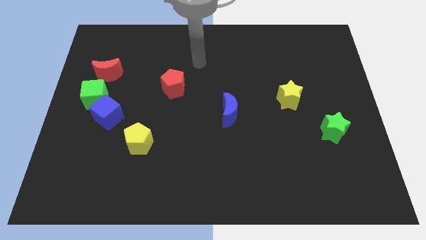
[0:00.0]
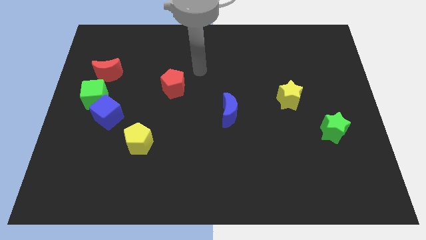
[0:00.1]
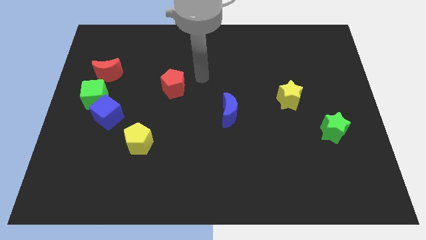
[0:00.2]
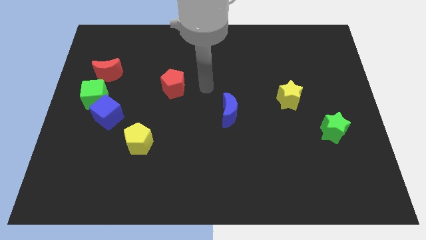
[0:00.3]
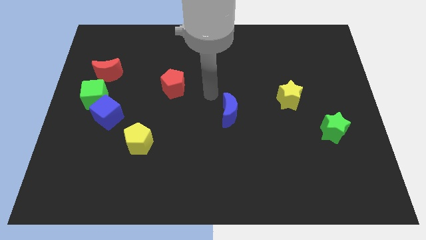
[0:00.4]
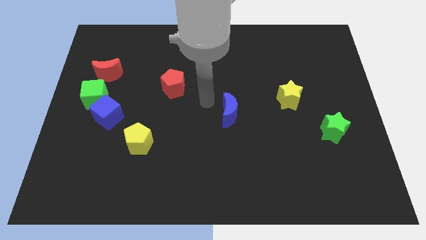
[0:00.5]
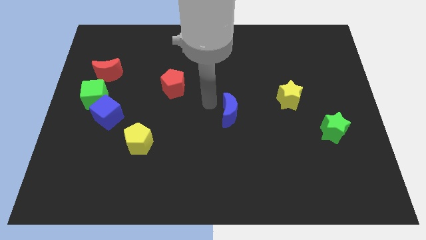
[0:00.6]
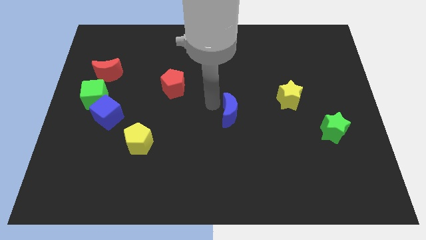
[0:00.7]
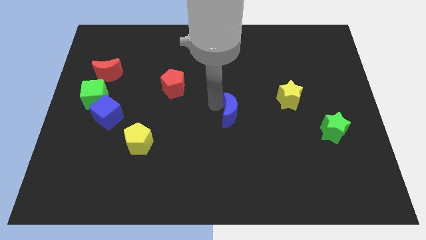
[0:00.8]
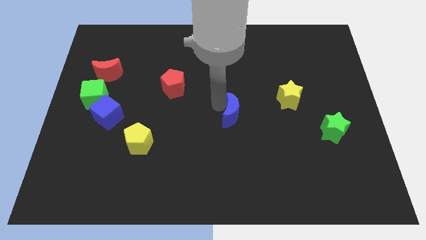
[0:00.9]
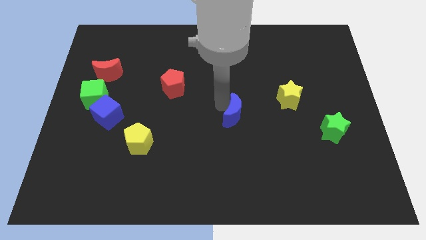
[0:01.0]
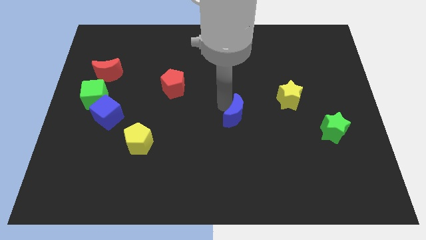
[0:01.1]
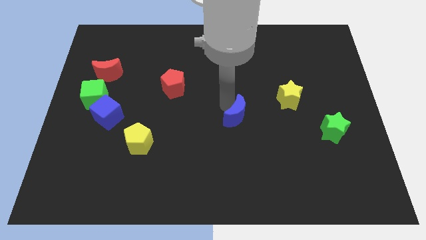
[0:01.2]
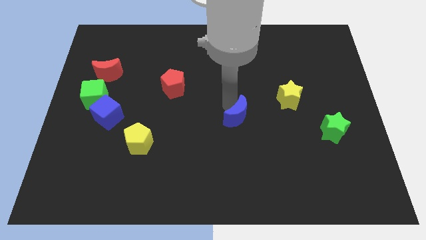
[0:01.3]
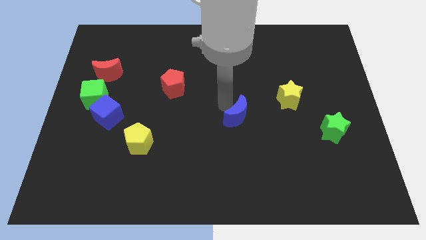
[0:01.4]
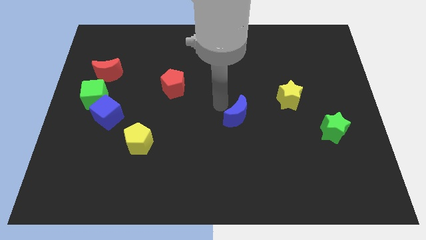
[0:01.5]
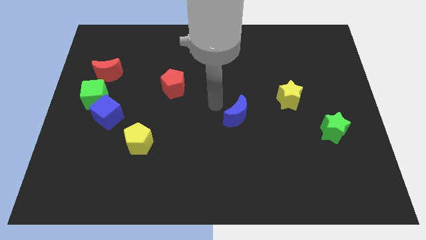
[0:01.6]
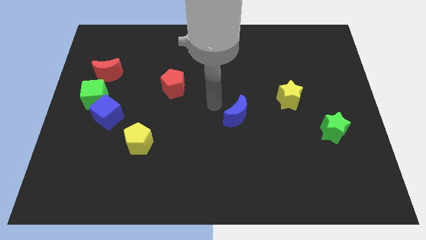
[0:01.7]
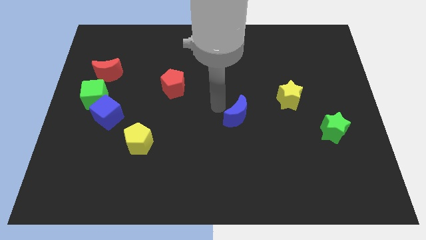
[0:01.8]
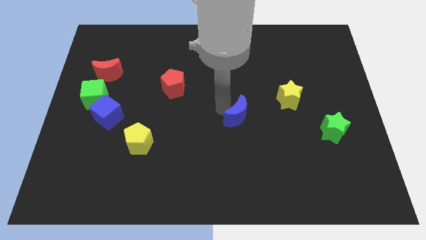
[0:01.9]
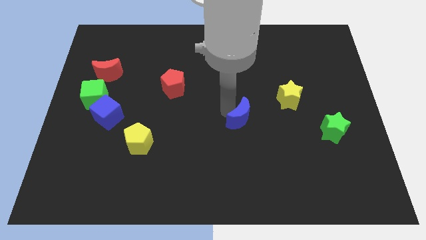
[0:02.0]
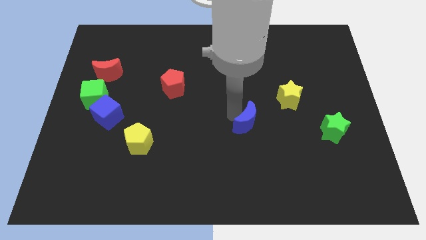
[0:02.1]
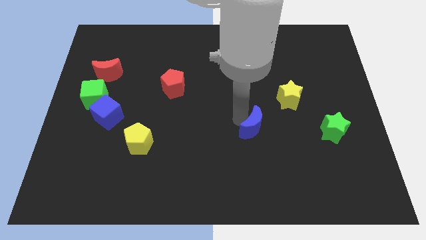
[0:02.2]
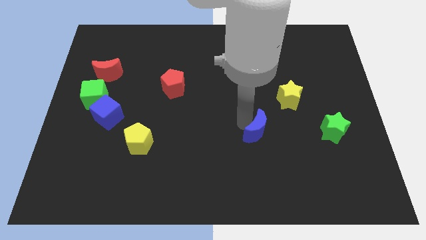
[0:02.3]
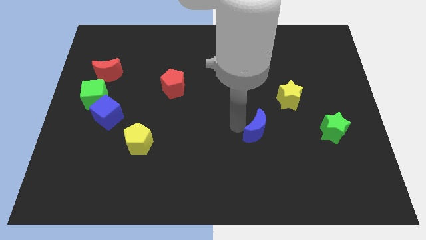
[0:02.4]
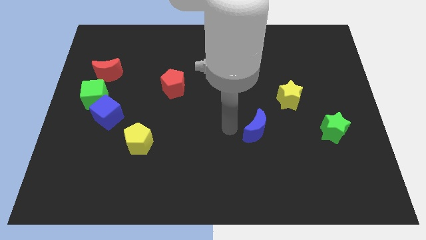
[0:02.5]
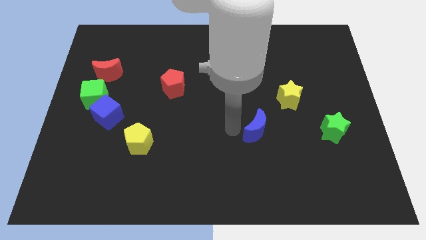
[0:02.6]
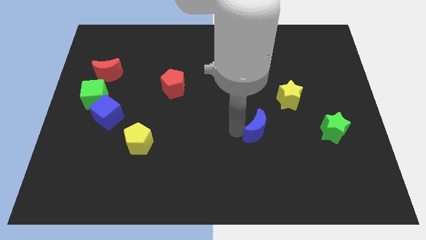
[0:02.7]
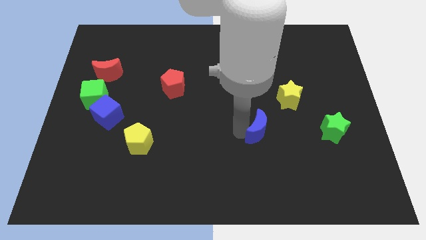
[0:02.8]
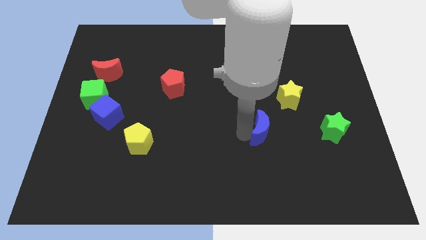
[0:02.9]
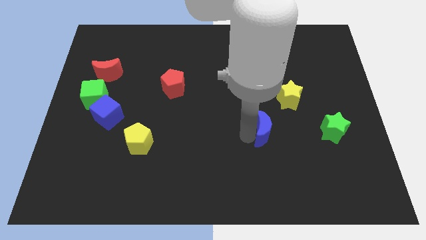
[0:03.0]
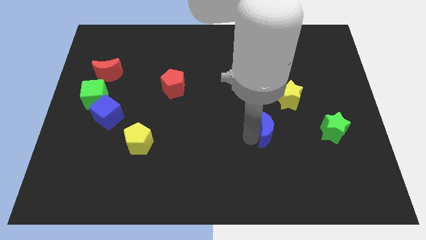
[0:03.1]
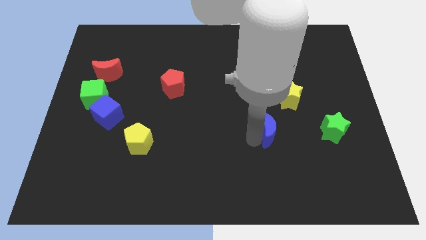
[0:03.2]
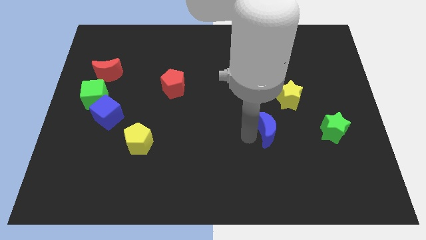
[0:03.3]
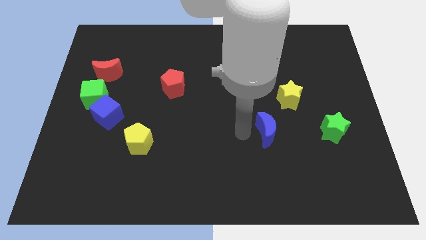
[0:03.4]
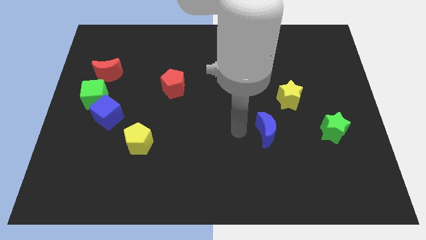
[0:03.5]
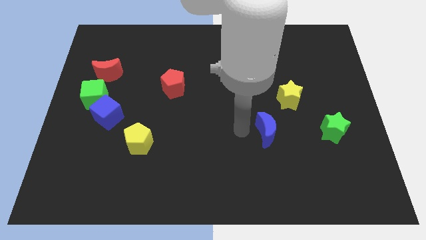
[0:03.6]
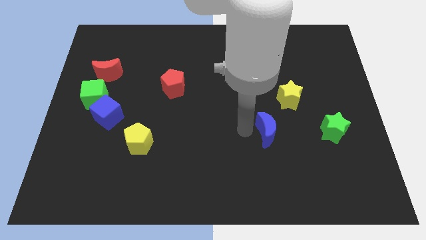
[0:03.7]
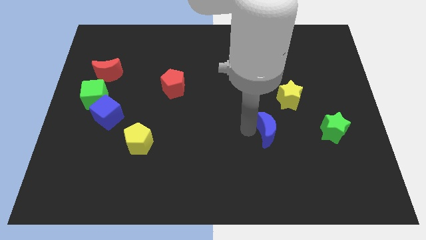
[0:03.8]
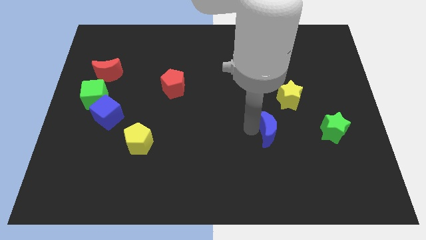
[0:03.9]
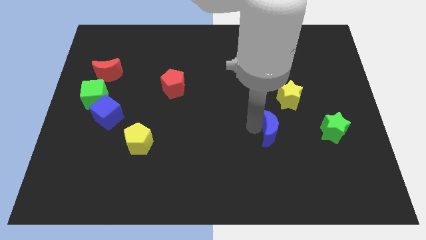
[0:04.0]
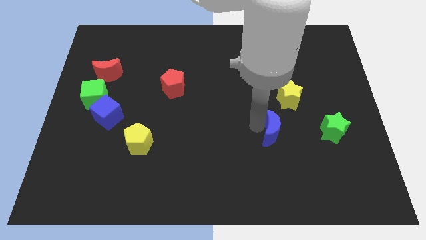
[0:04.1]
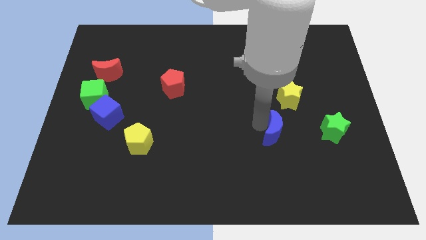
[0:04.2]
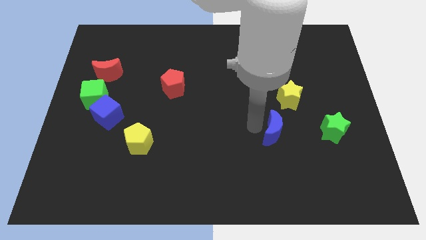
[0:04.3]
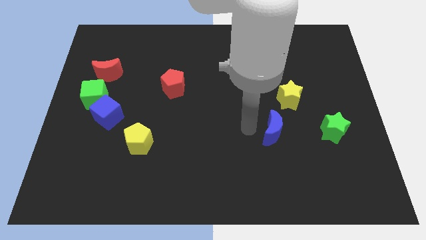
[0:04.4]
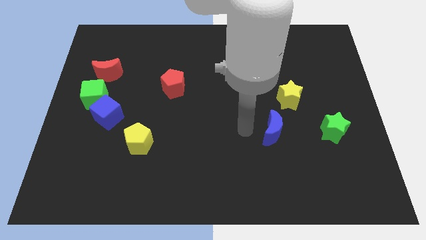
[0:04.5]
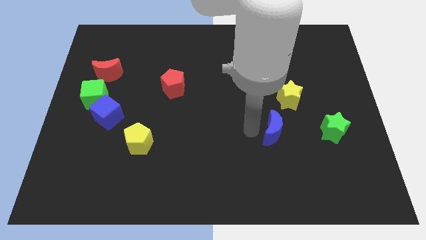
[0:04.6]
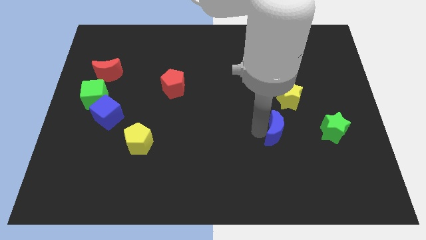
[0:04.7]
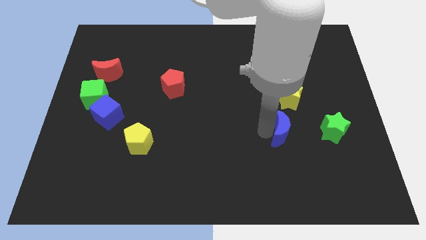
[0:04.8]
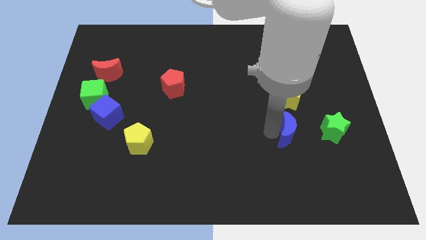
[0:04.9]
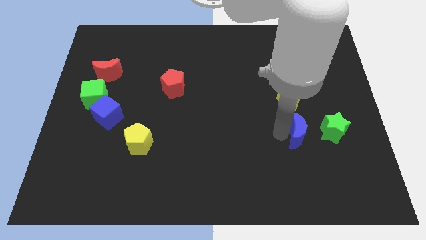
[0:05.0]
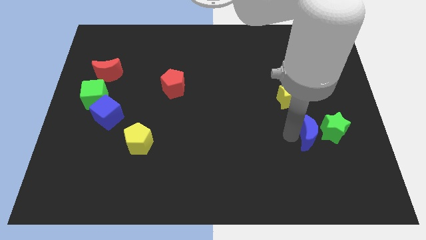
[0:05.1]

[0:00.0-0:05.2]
push the blue moon next to the green star

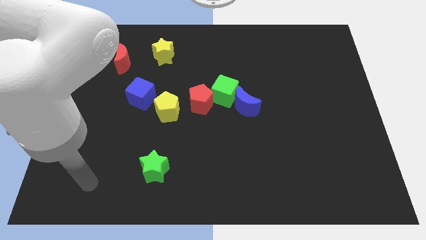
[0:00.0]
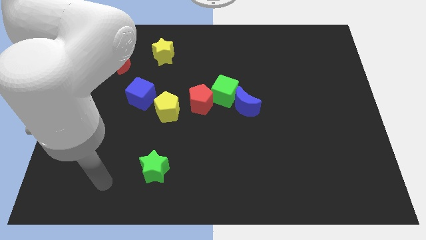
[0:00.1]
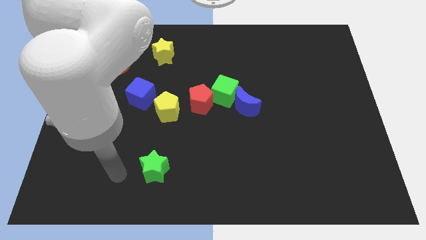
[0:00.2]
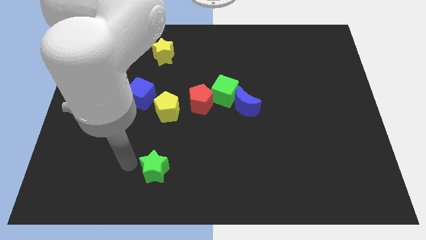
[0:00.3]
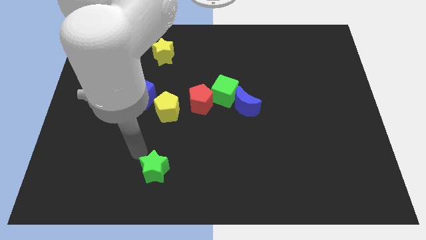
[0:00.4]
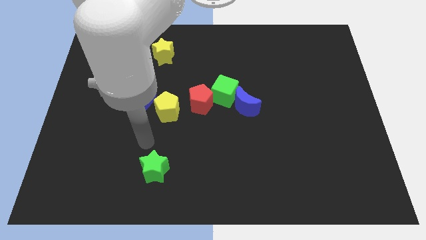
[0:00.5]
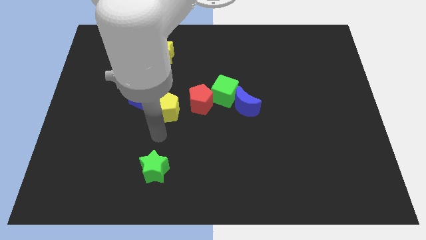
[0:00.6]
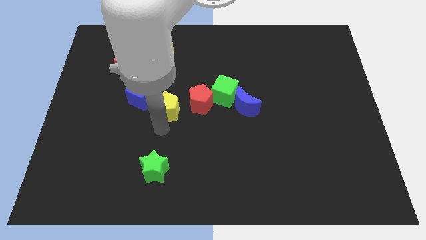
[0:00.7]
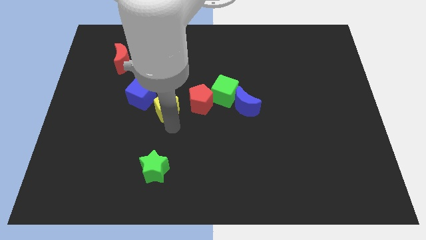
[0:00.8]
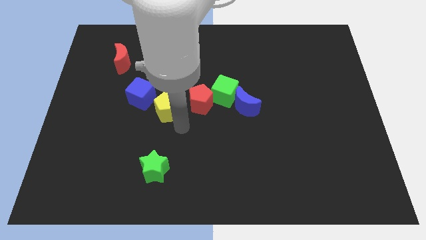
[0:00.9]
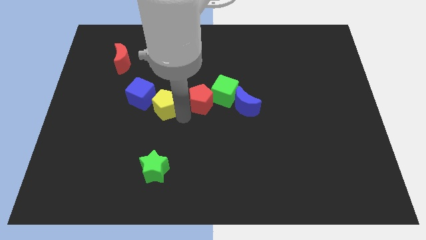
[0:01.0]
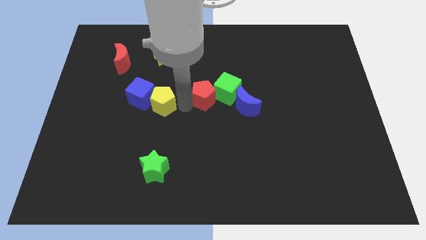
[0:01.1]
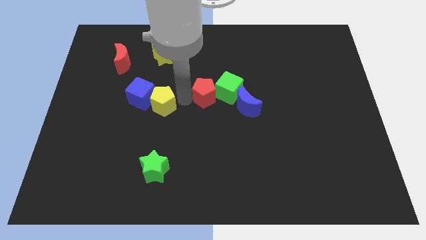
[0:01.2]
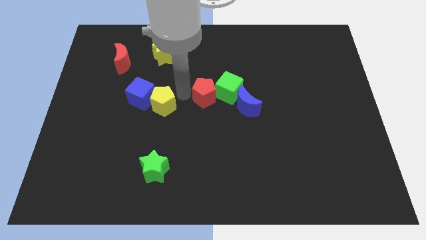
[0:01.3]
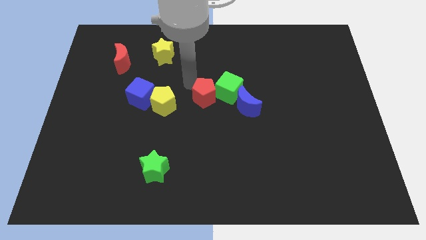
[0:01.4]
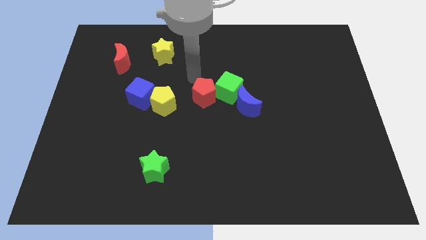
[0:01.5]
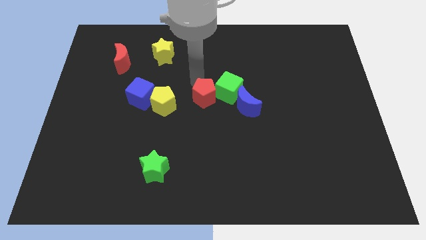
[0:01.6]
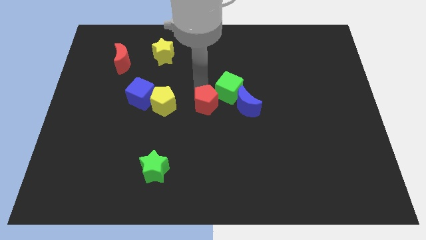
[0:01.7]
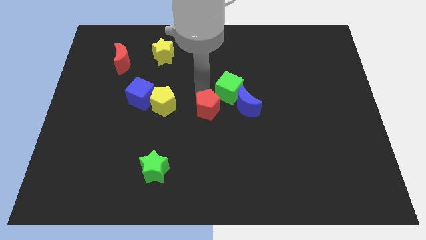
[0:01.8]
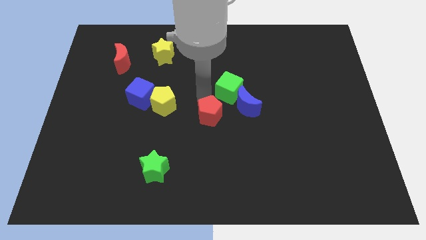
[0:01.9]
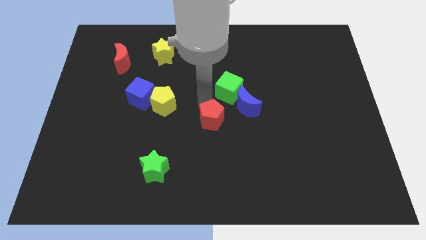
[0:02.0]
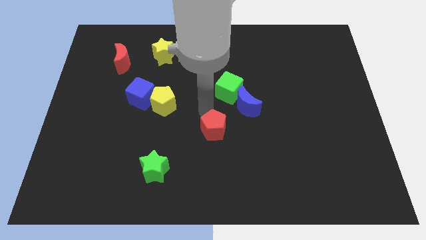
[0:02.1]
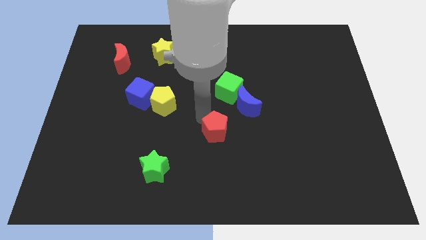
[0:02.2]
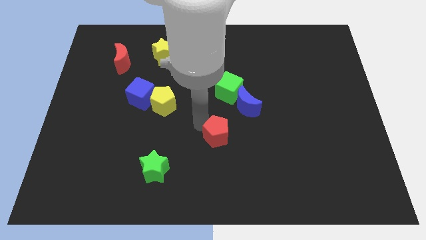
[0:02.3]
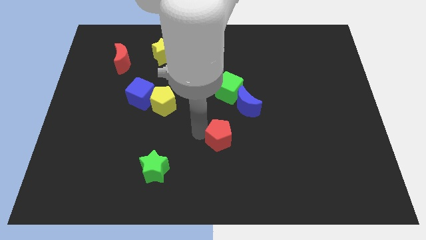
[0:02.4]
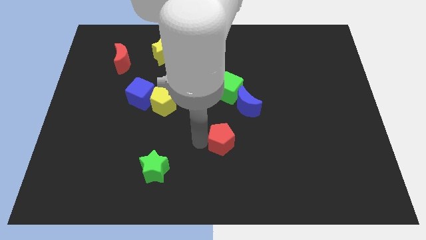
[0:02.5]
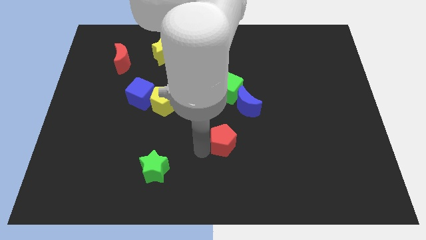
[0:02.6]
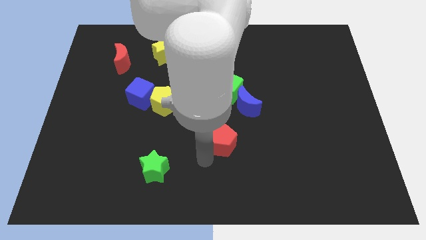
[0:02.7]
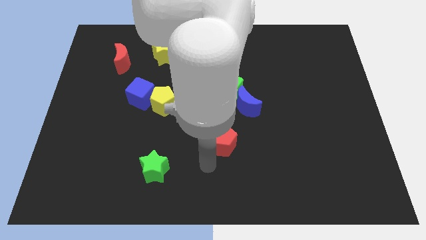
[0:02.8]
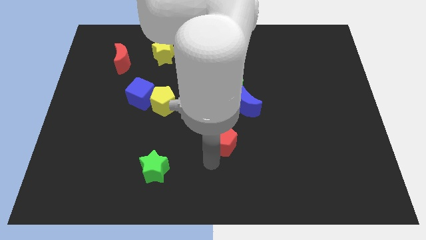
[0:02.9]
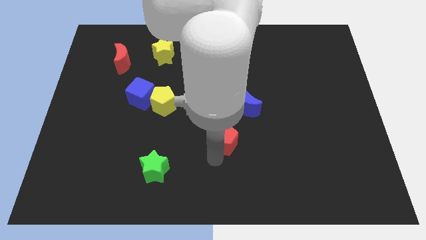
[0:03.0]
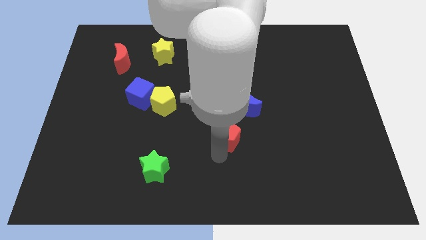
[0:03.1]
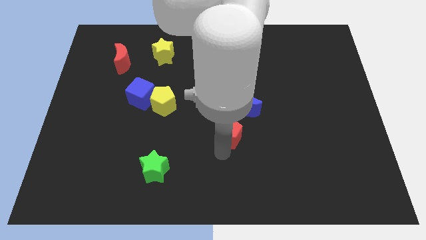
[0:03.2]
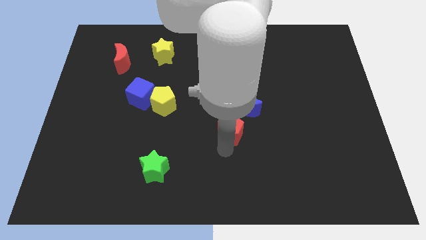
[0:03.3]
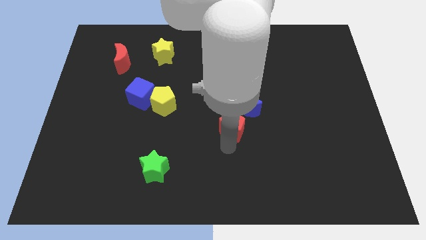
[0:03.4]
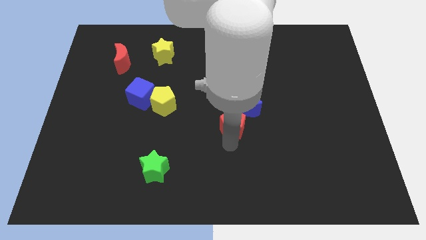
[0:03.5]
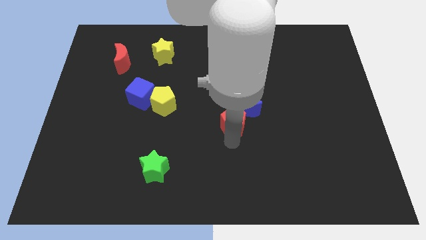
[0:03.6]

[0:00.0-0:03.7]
move the red pentagon towards the blue moon
